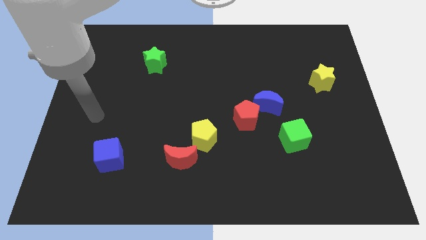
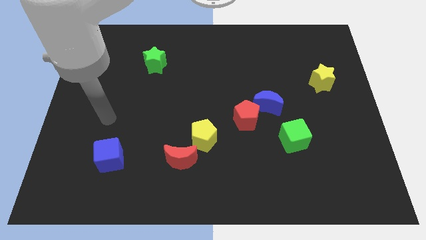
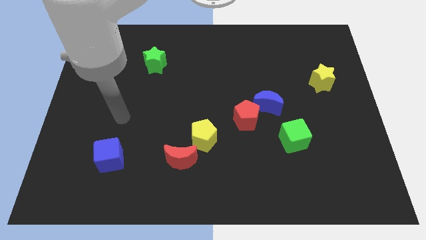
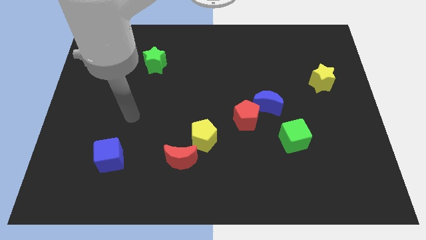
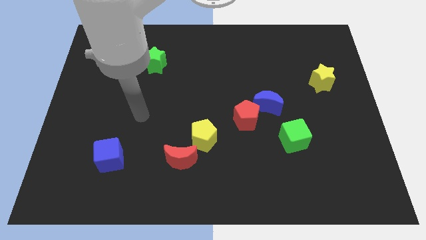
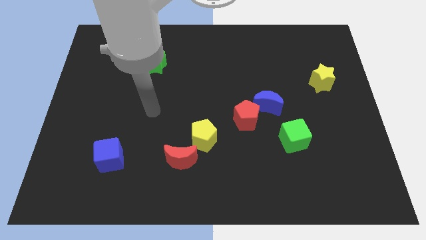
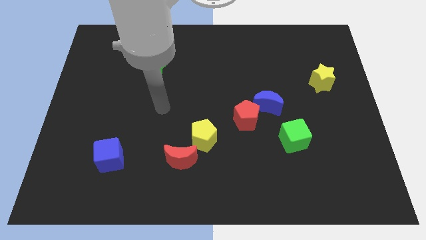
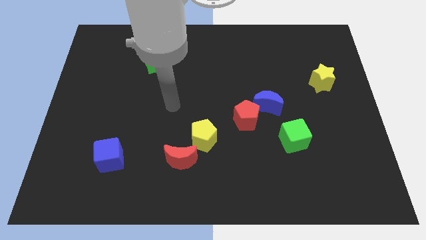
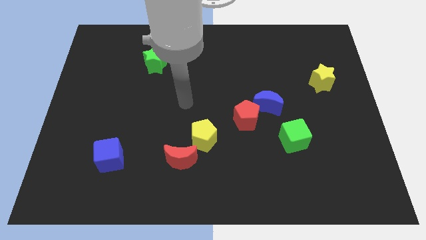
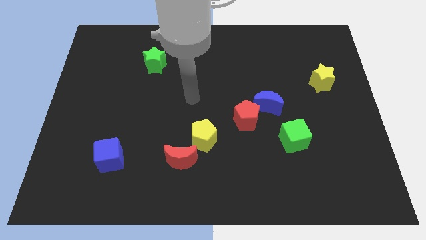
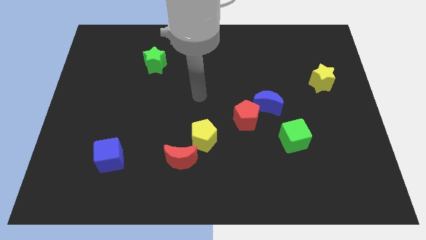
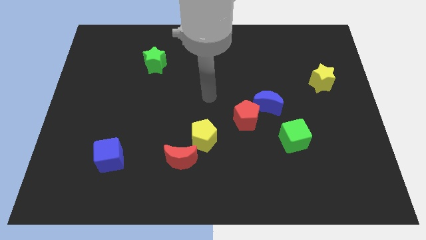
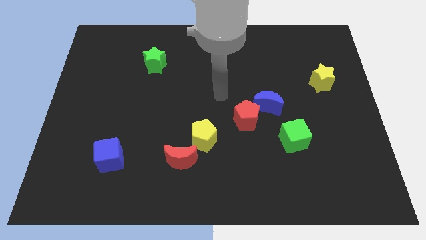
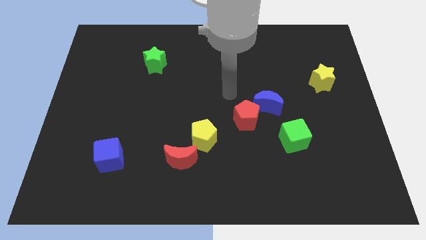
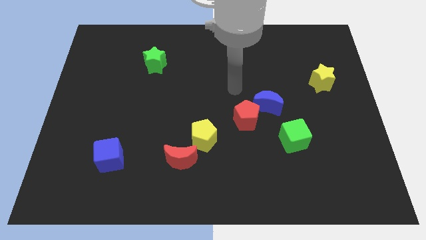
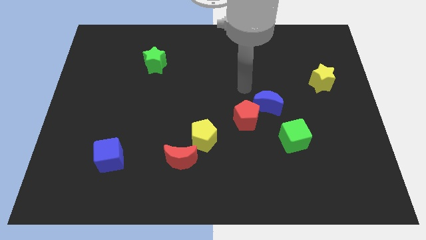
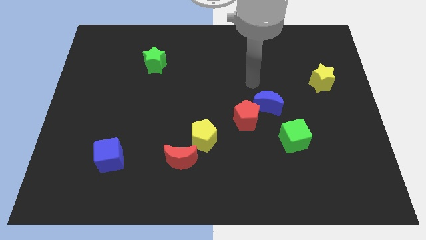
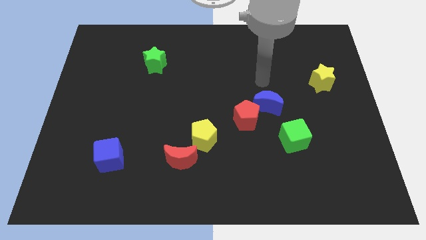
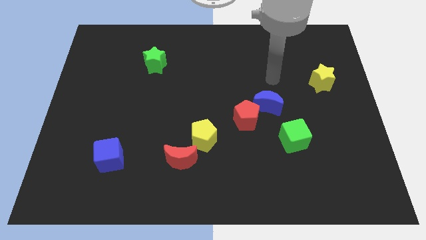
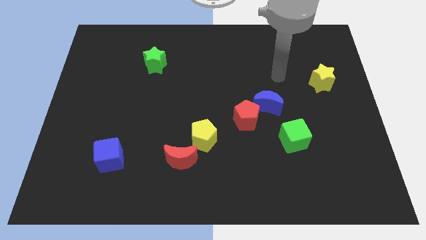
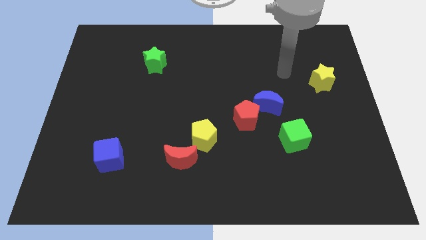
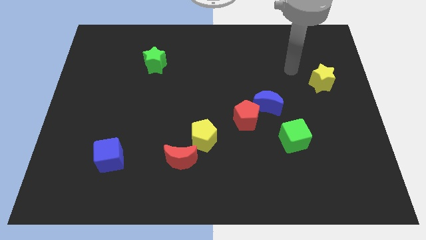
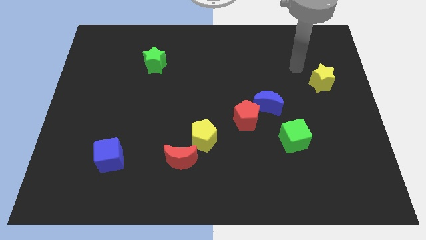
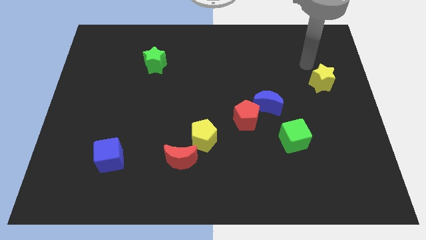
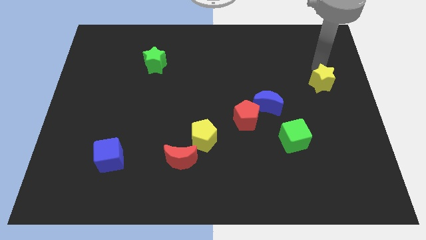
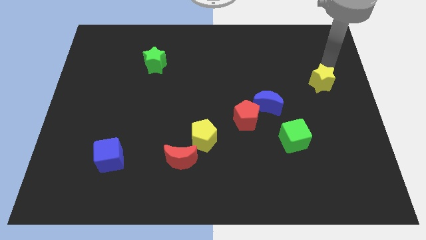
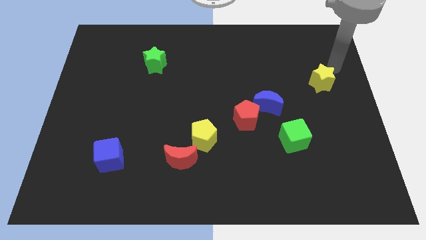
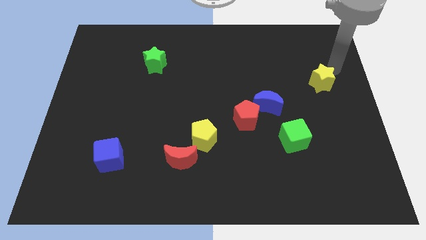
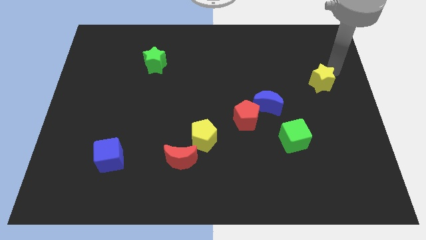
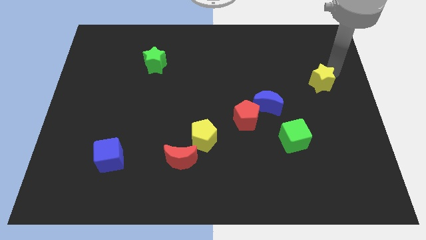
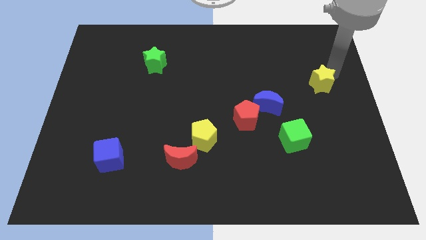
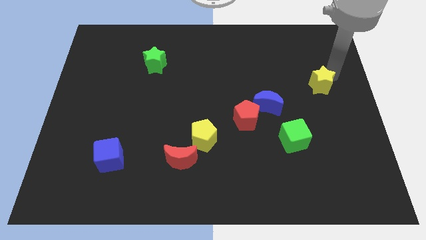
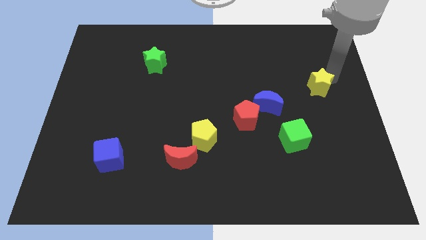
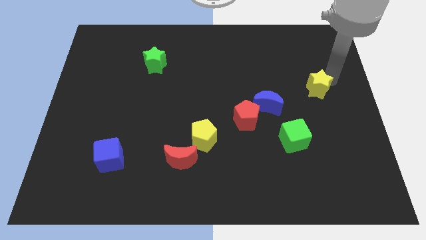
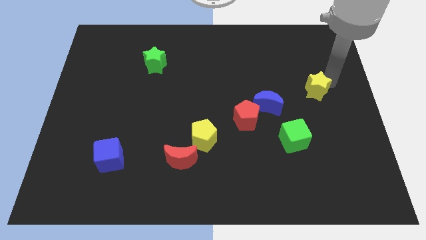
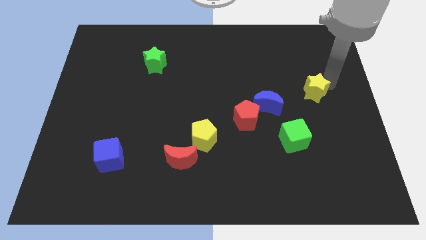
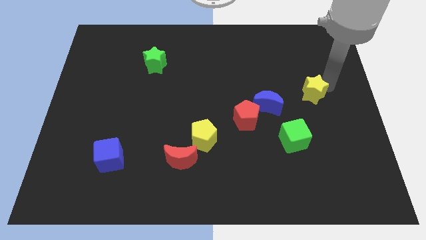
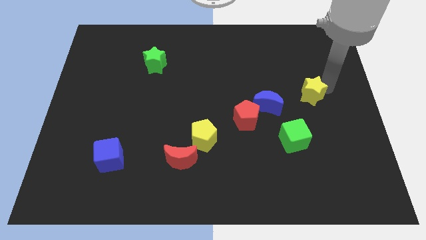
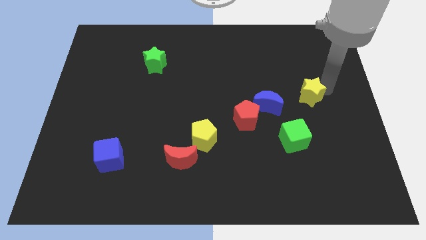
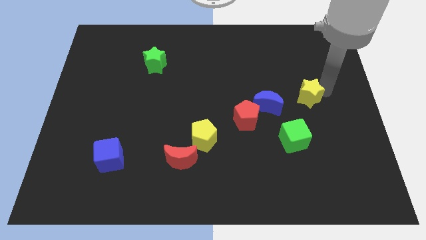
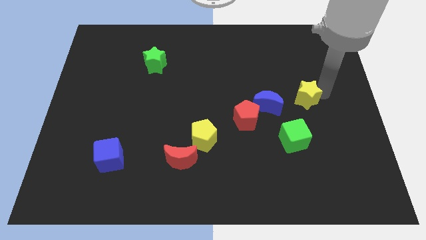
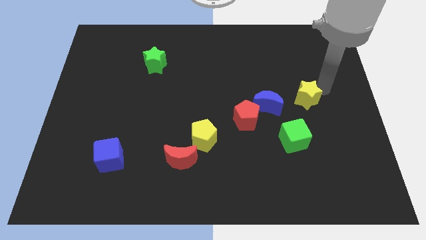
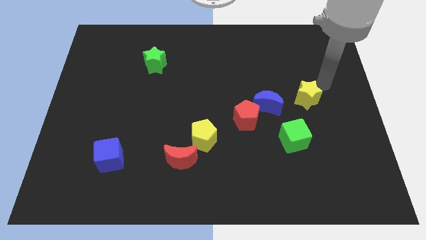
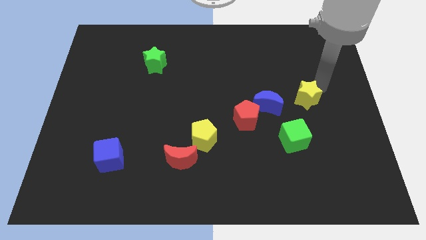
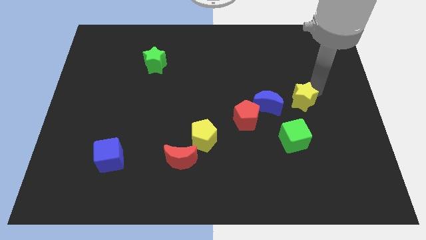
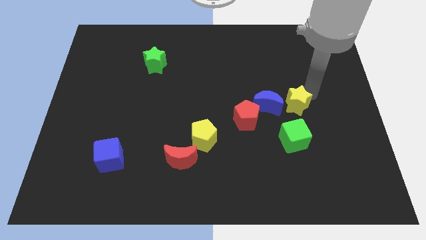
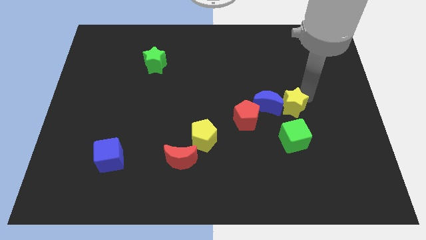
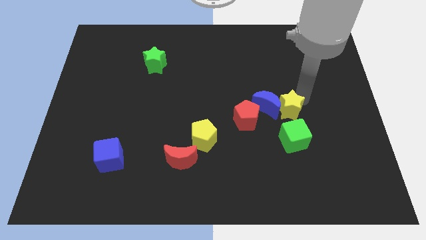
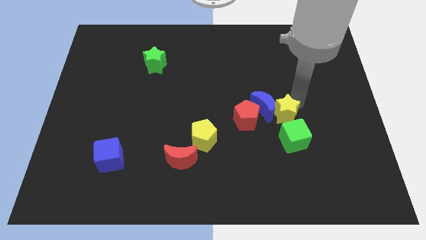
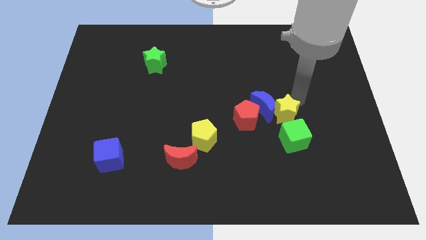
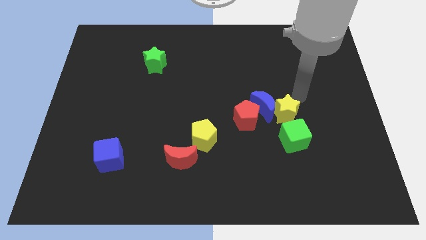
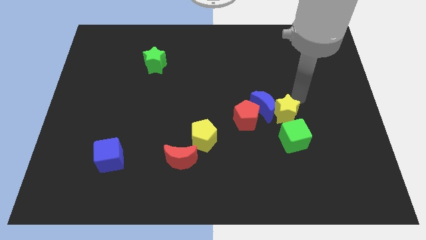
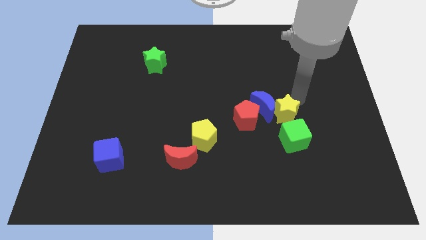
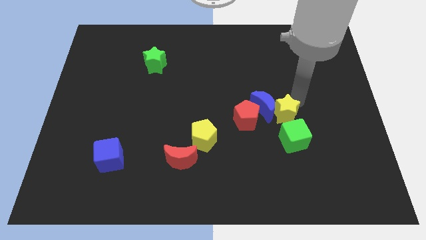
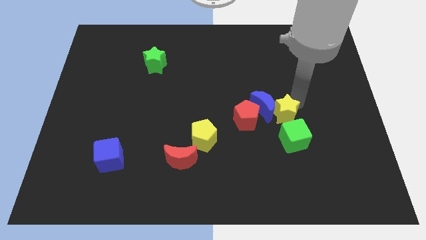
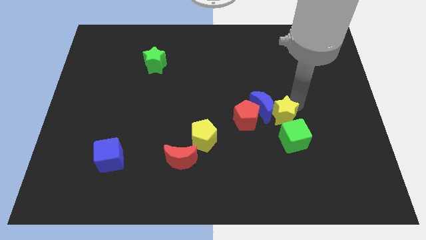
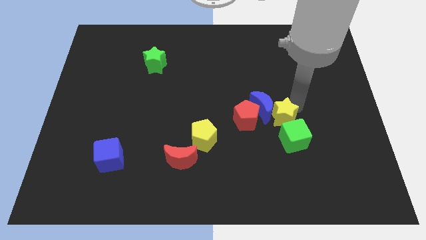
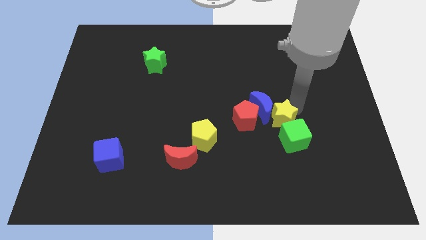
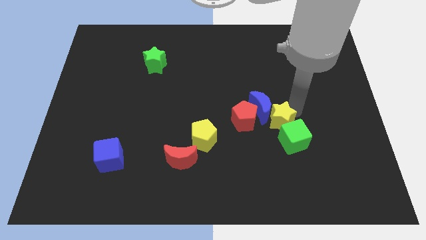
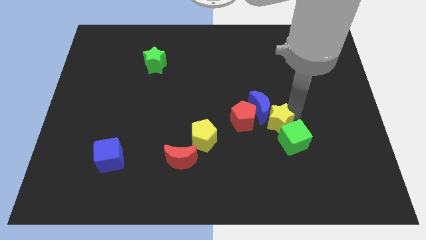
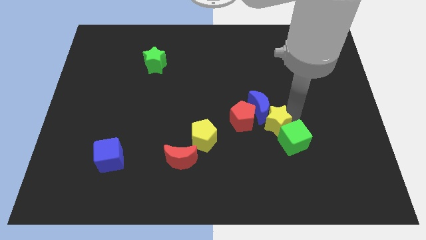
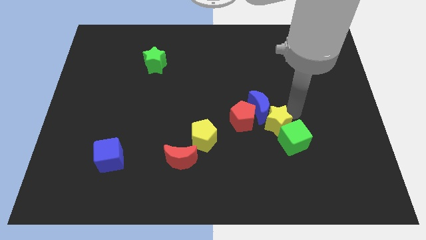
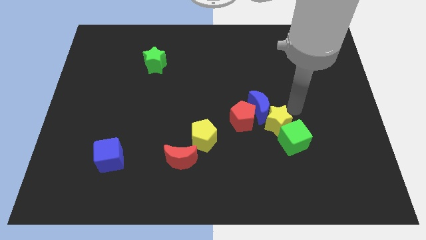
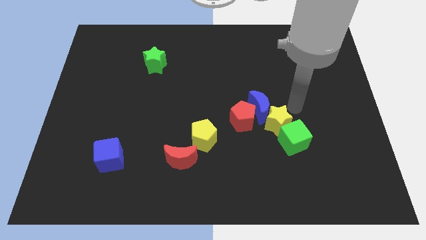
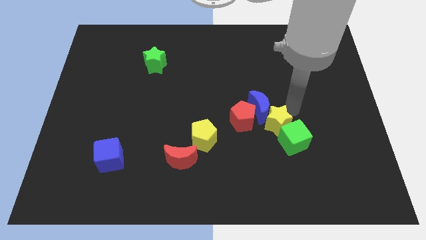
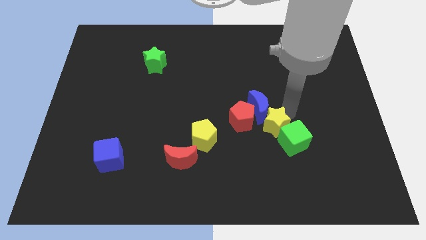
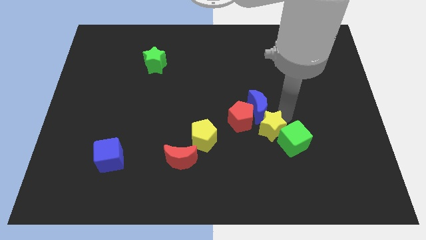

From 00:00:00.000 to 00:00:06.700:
slide the yellow star diagonally downwards and to the left

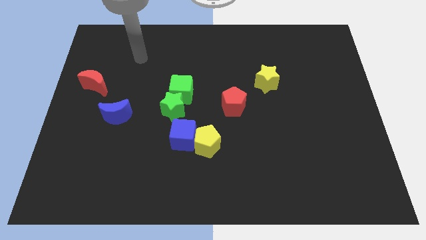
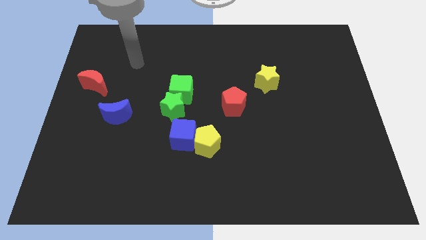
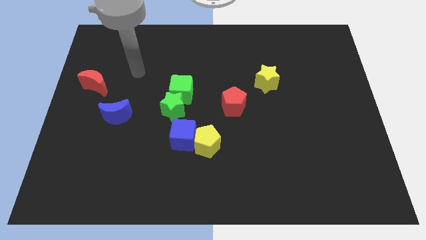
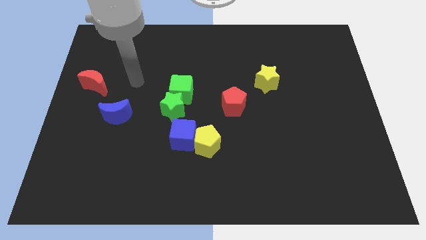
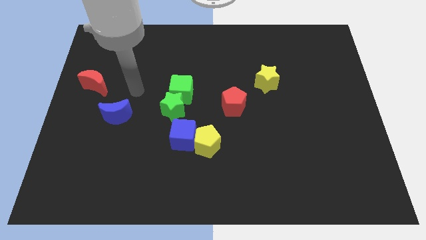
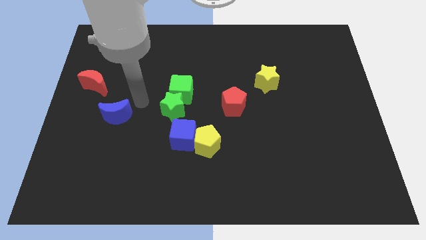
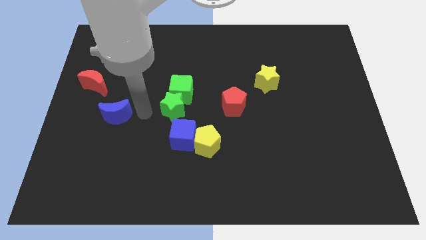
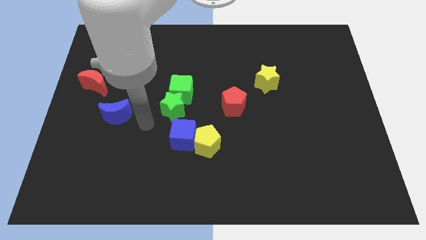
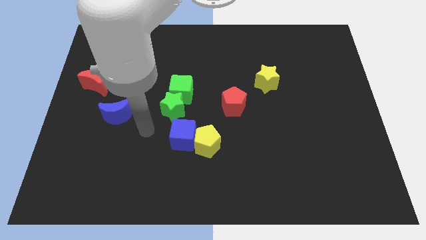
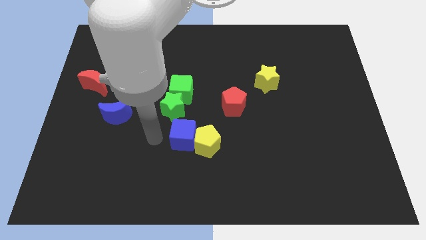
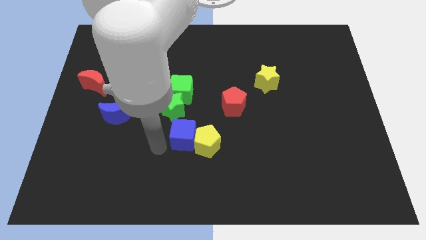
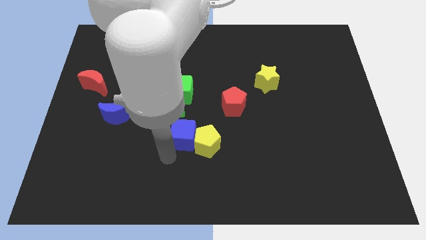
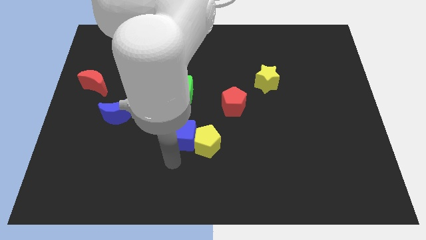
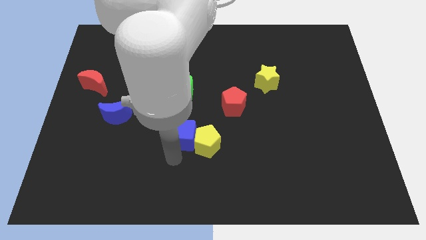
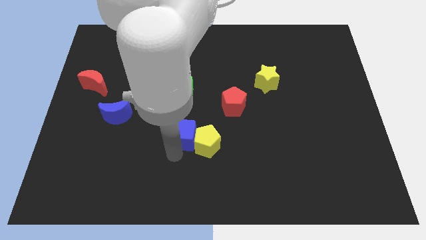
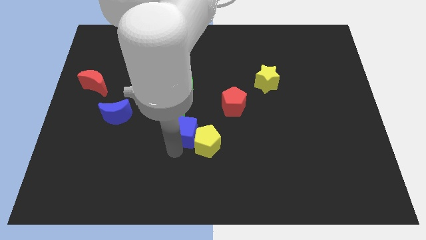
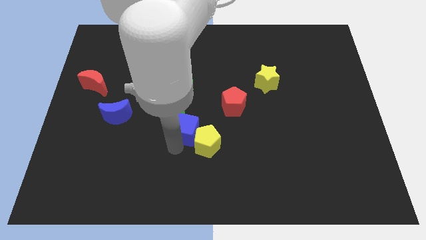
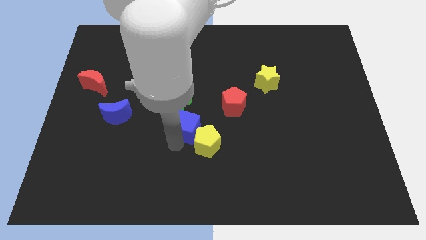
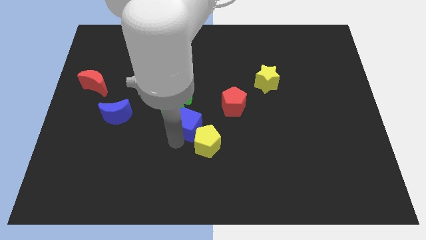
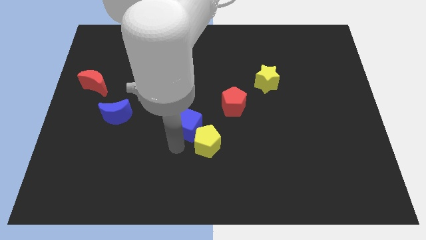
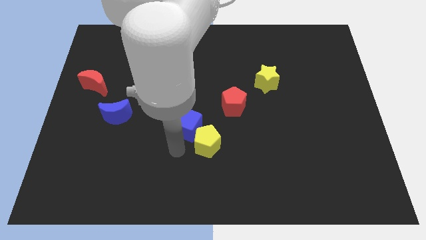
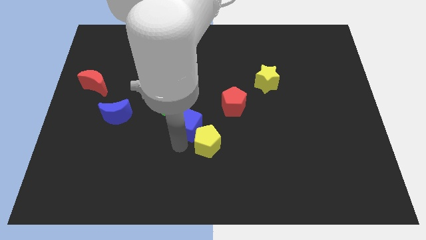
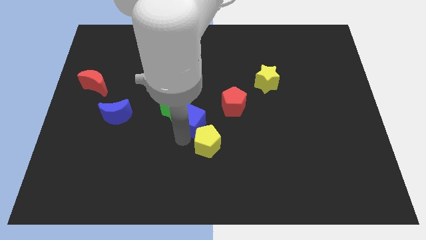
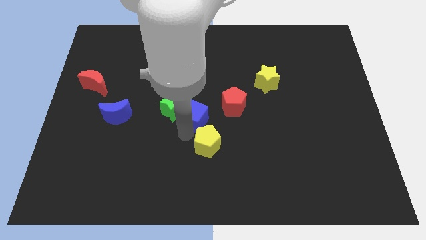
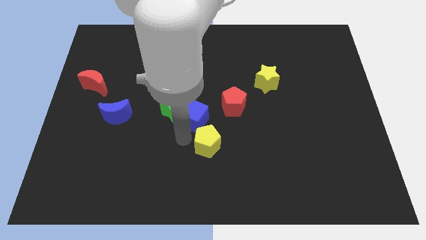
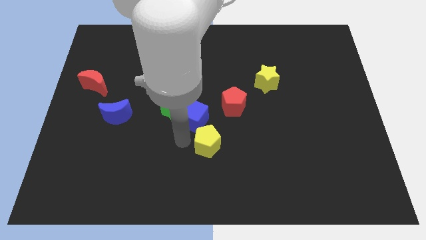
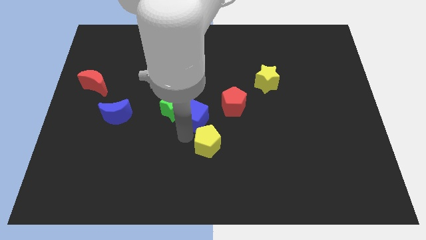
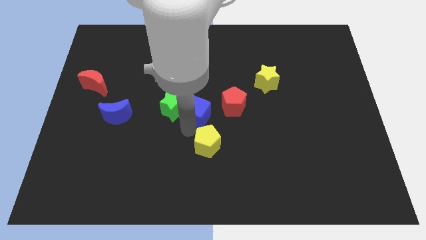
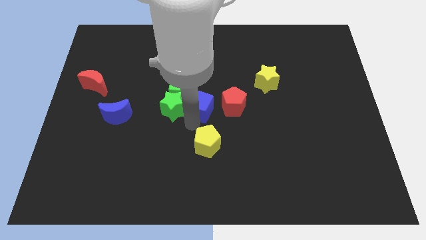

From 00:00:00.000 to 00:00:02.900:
slide the blue cube somewhat upwards
